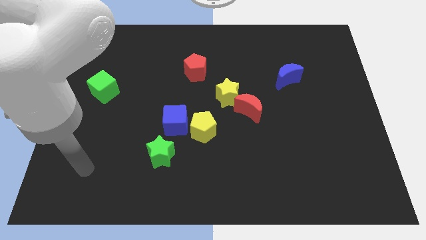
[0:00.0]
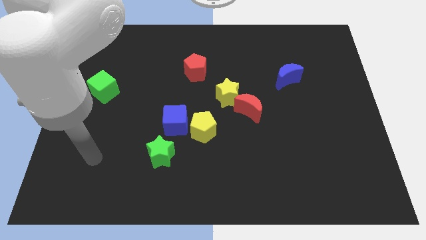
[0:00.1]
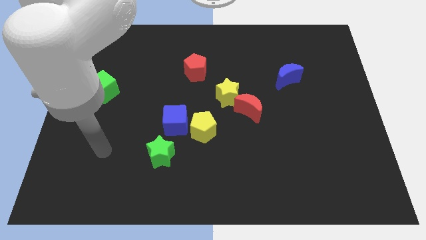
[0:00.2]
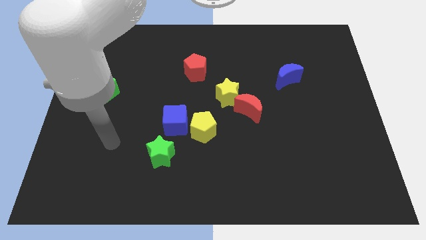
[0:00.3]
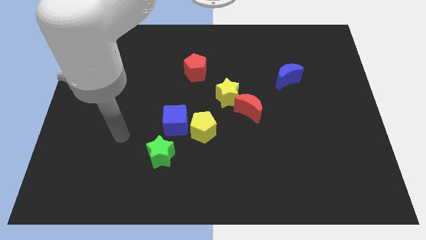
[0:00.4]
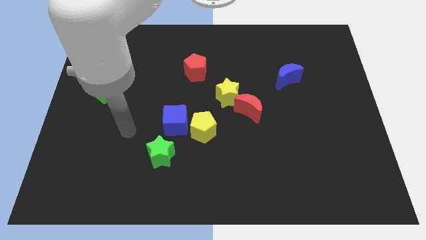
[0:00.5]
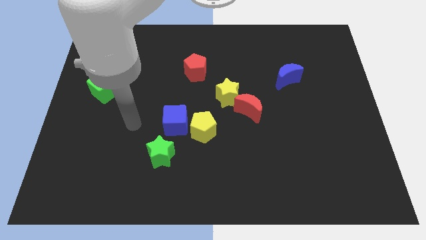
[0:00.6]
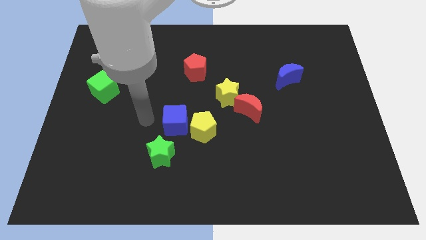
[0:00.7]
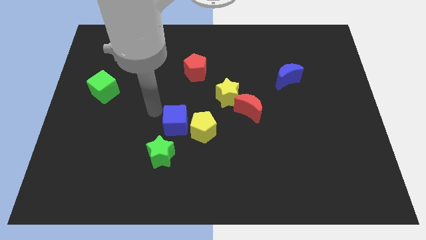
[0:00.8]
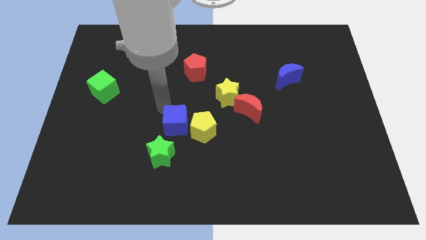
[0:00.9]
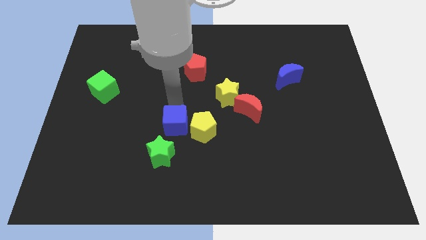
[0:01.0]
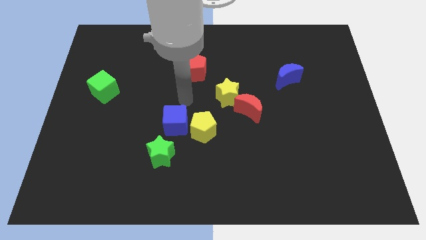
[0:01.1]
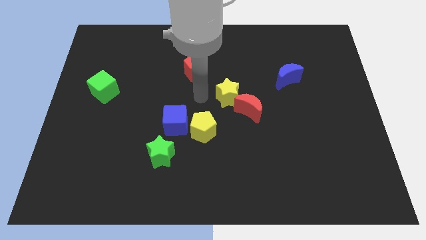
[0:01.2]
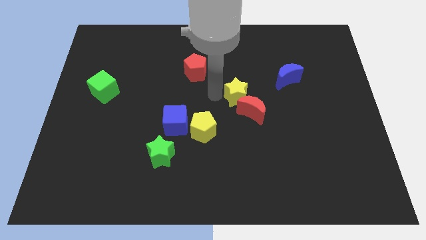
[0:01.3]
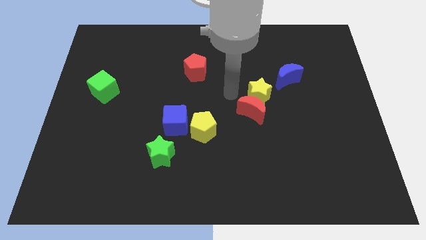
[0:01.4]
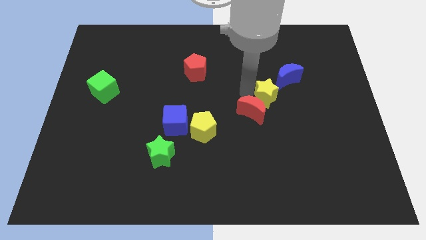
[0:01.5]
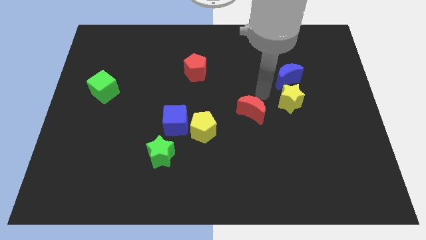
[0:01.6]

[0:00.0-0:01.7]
pull the red moon apart from the yellow star

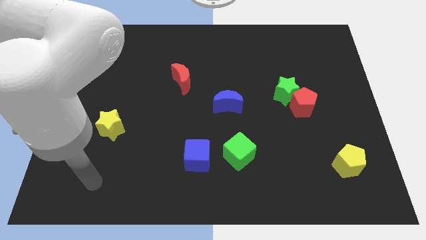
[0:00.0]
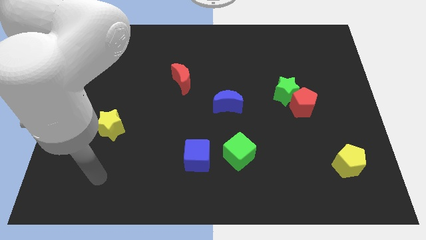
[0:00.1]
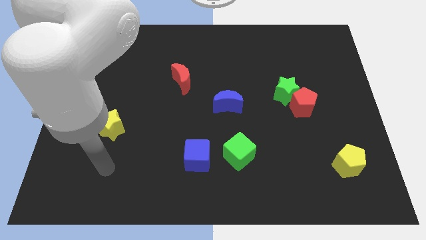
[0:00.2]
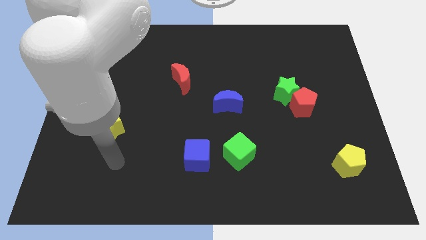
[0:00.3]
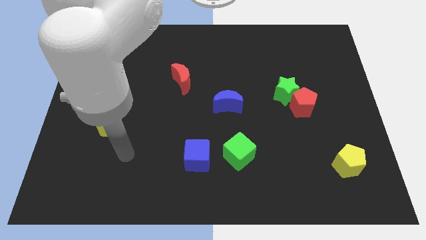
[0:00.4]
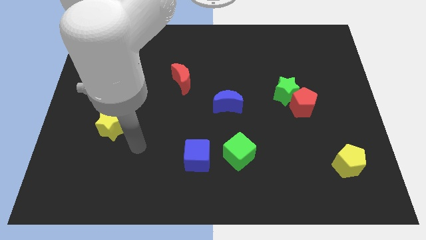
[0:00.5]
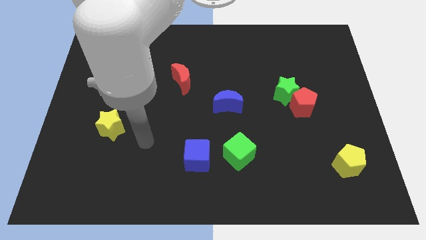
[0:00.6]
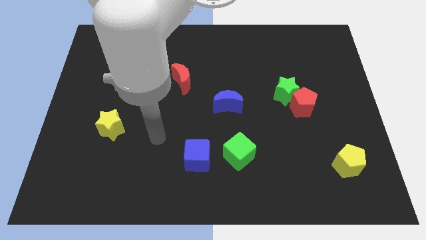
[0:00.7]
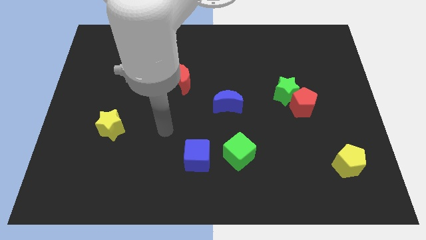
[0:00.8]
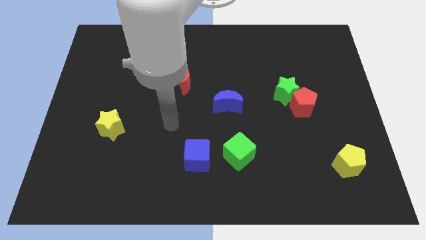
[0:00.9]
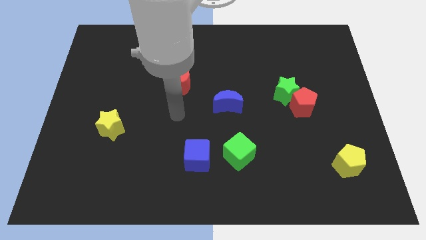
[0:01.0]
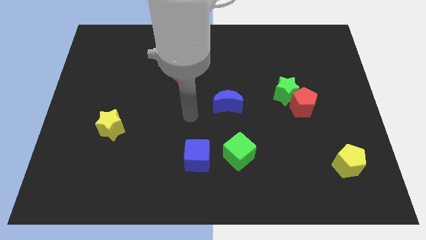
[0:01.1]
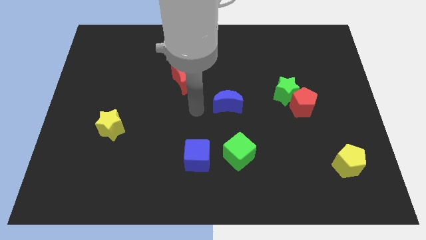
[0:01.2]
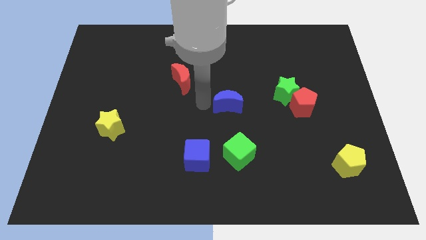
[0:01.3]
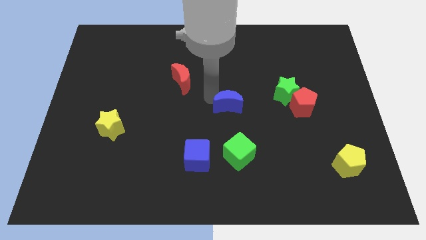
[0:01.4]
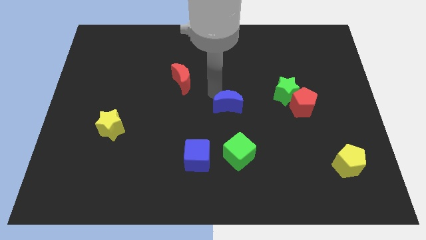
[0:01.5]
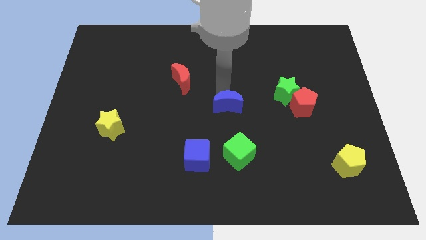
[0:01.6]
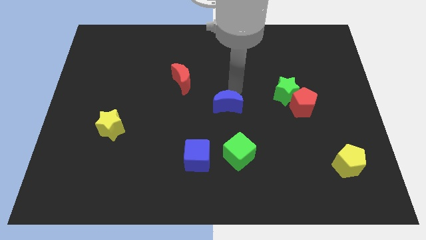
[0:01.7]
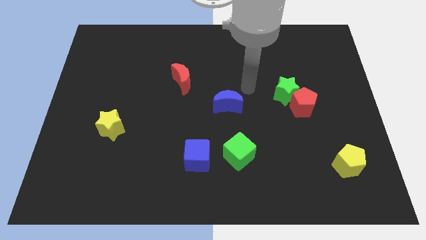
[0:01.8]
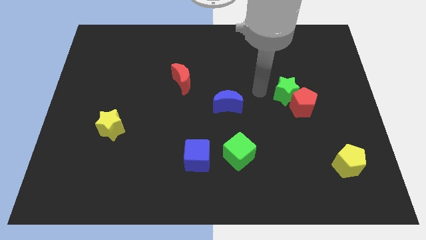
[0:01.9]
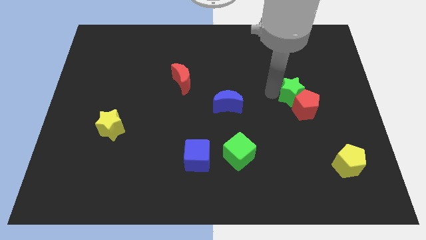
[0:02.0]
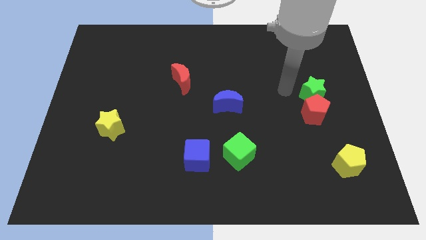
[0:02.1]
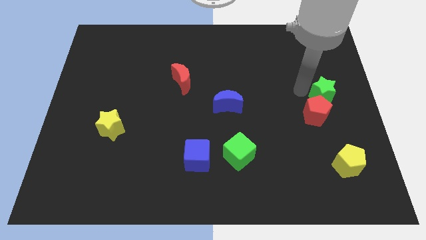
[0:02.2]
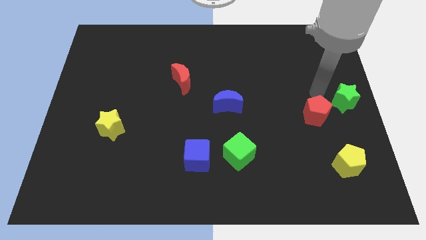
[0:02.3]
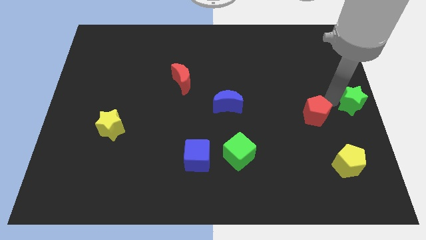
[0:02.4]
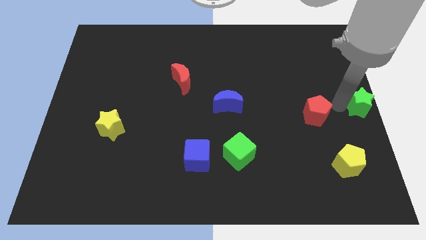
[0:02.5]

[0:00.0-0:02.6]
separate the red pentagon from the green star

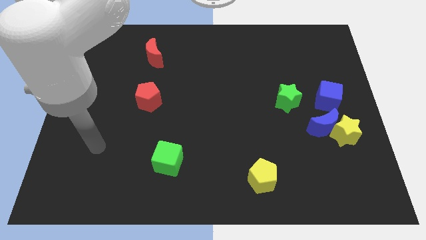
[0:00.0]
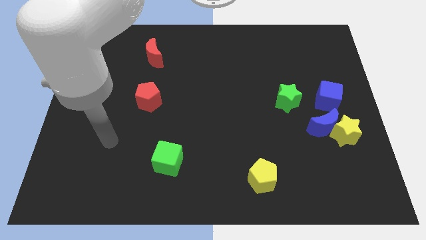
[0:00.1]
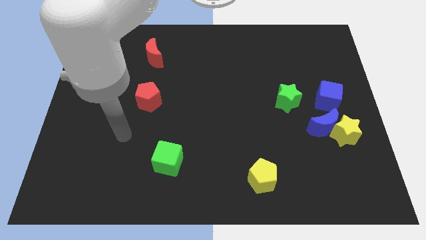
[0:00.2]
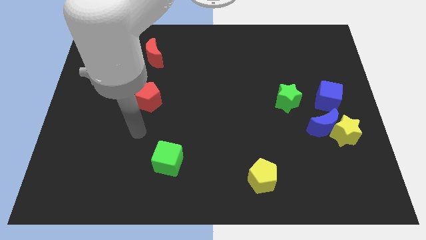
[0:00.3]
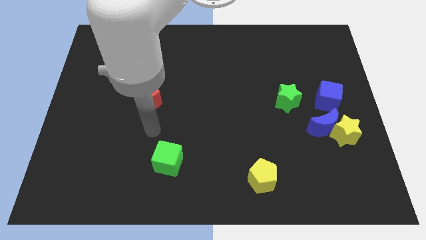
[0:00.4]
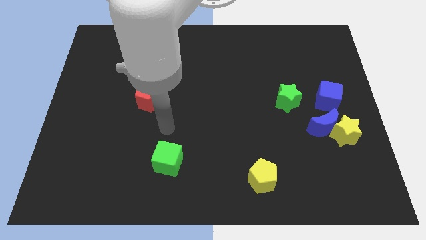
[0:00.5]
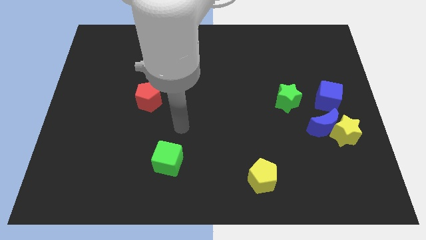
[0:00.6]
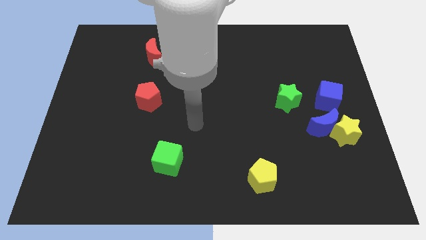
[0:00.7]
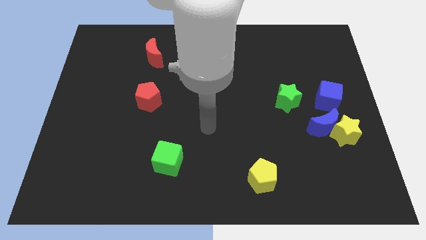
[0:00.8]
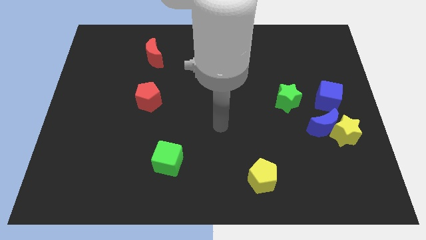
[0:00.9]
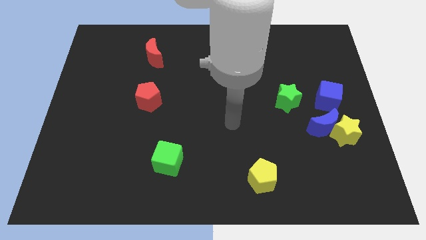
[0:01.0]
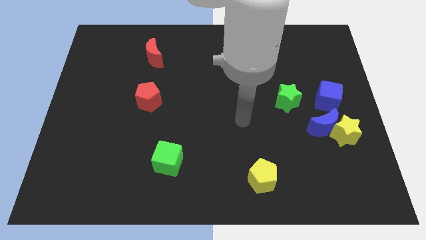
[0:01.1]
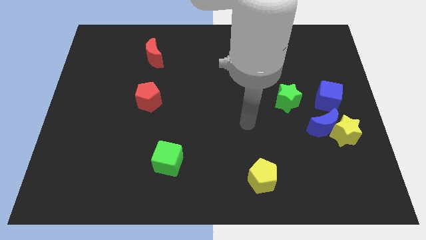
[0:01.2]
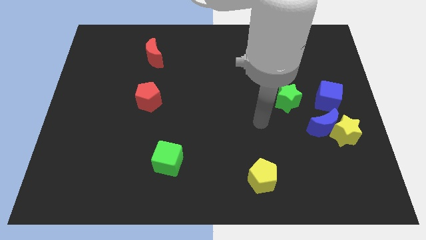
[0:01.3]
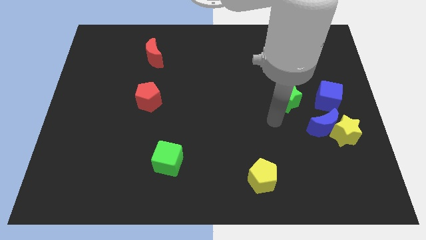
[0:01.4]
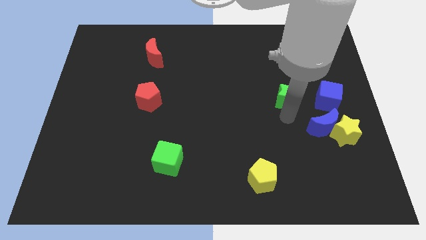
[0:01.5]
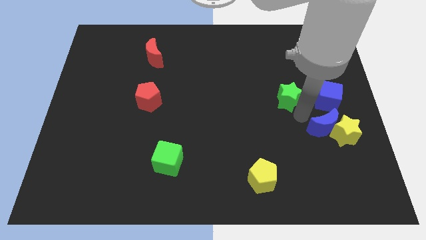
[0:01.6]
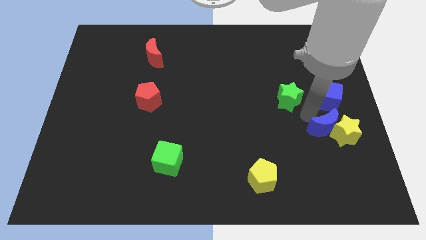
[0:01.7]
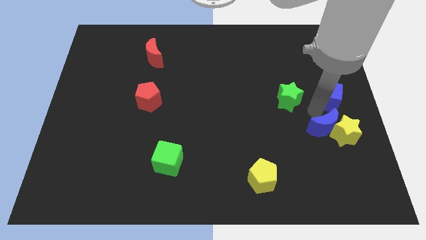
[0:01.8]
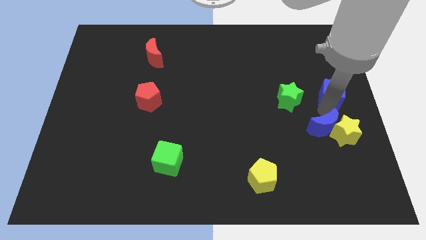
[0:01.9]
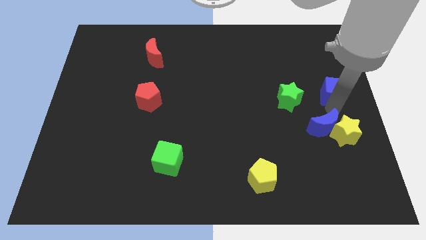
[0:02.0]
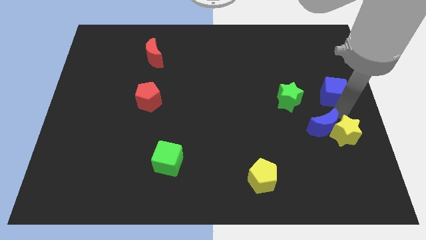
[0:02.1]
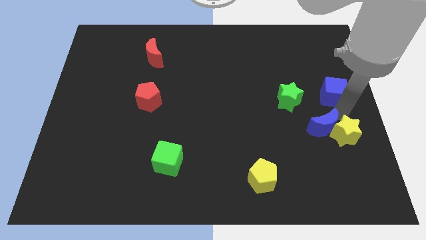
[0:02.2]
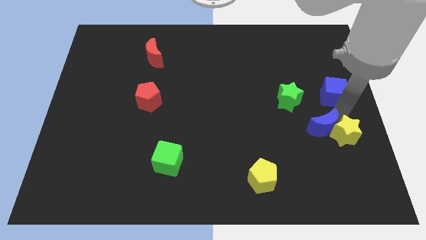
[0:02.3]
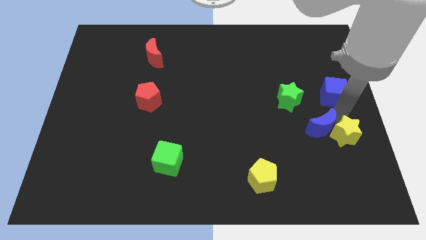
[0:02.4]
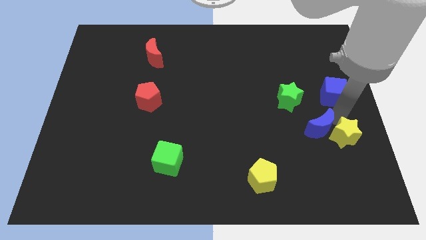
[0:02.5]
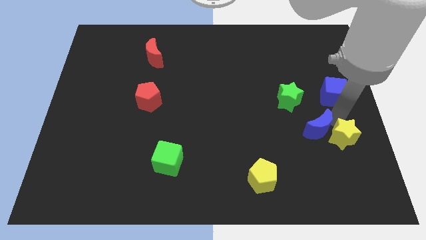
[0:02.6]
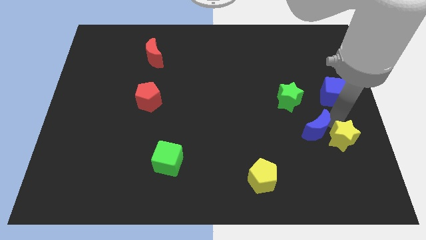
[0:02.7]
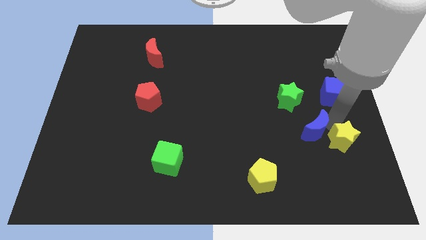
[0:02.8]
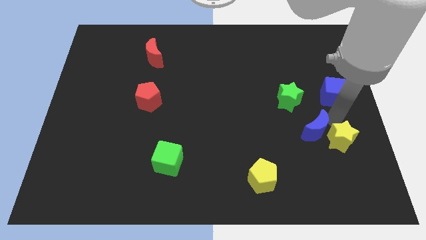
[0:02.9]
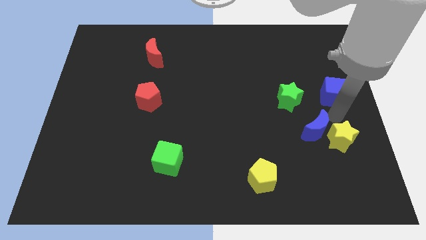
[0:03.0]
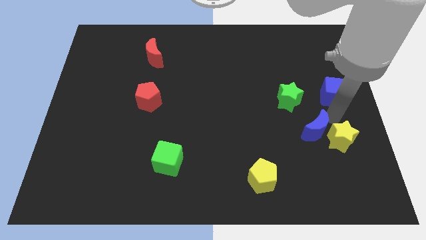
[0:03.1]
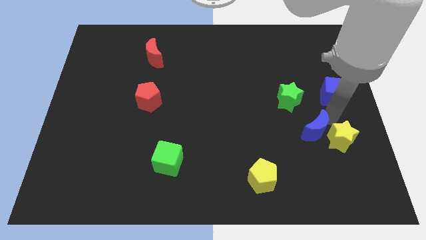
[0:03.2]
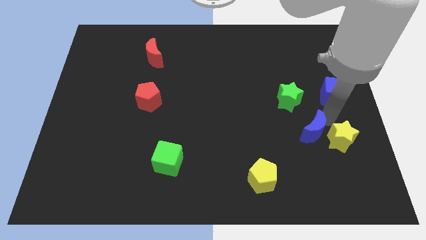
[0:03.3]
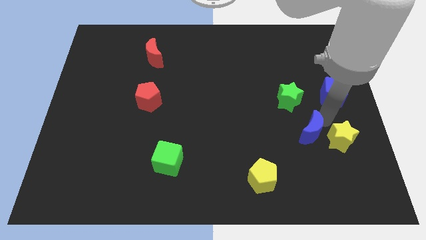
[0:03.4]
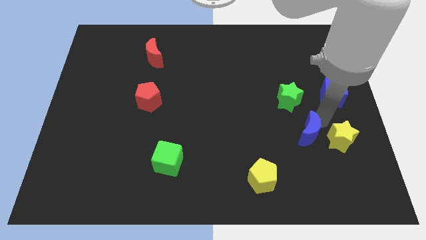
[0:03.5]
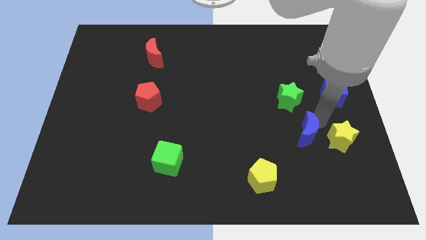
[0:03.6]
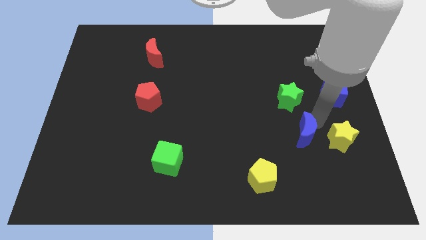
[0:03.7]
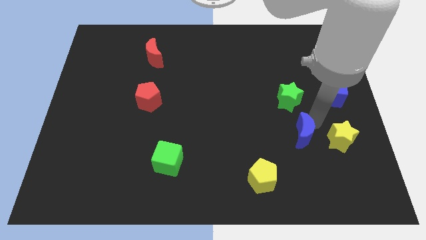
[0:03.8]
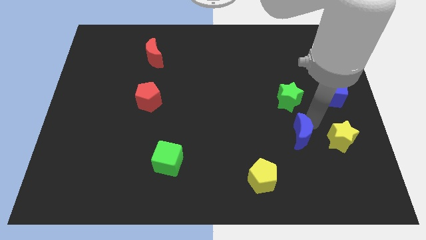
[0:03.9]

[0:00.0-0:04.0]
pull the blue moon apart from the yellow star and blue cube

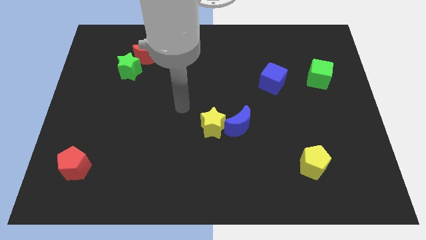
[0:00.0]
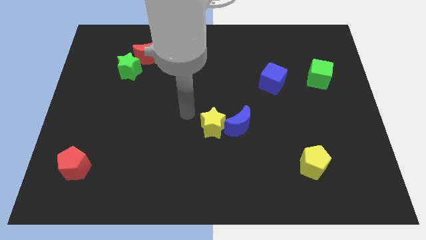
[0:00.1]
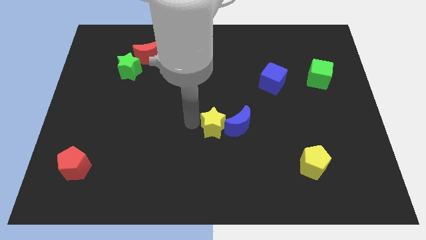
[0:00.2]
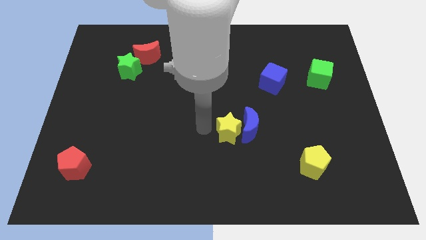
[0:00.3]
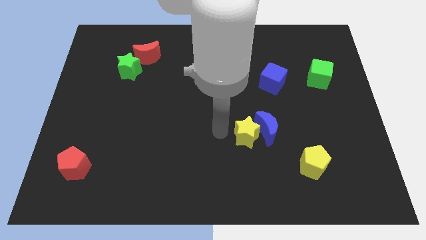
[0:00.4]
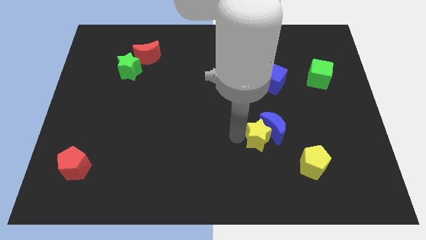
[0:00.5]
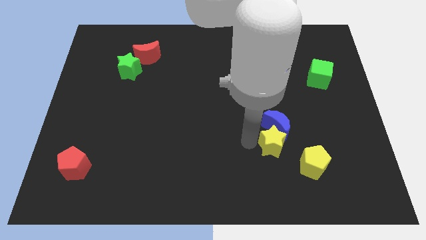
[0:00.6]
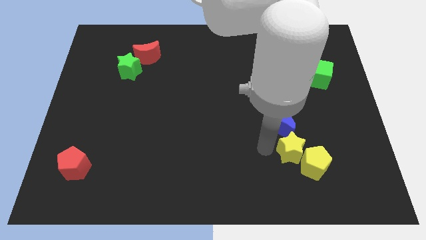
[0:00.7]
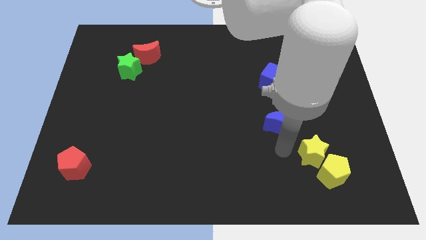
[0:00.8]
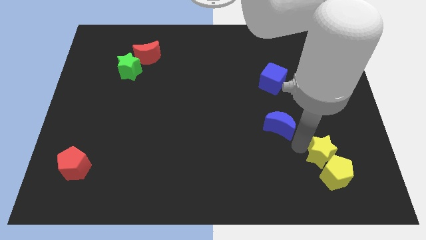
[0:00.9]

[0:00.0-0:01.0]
move the blue moon away from the yellow star
